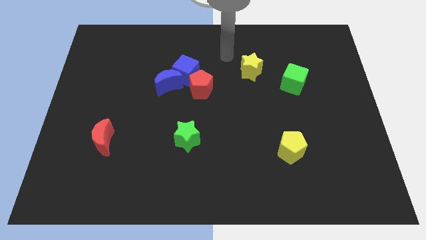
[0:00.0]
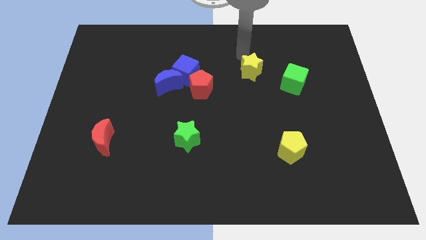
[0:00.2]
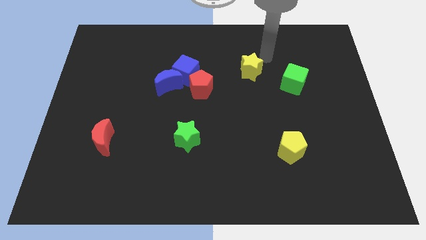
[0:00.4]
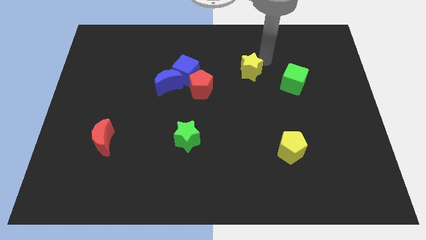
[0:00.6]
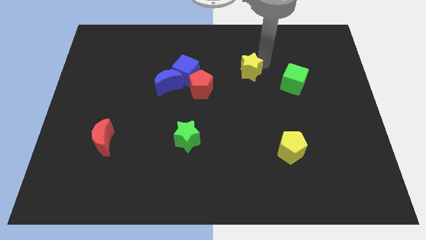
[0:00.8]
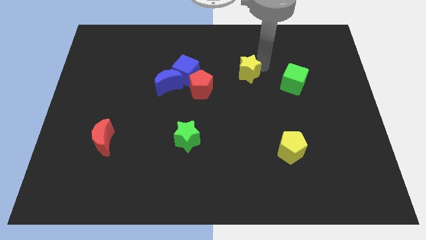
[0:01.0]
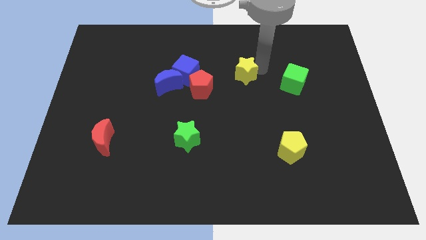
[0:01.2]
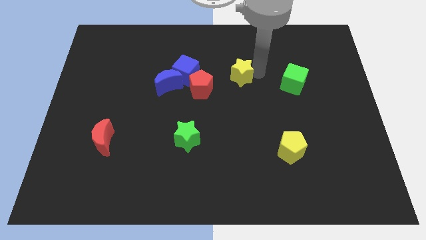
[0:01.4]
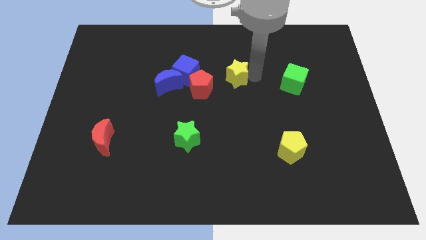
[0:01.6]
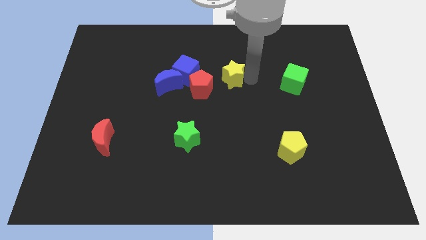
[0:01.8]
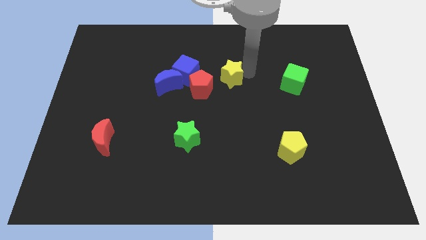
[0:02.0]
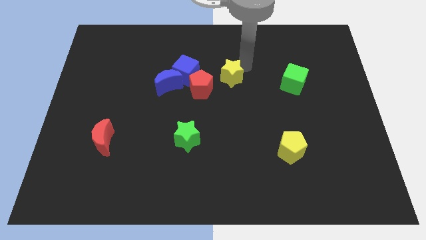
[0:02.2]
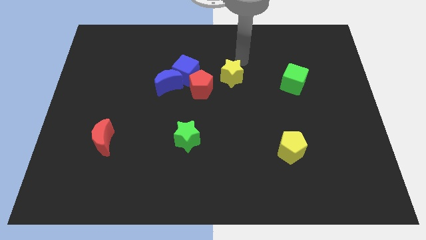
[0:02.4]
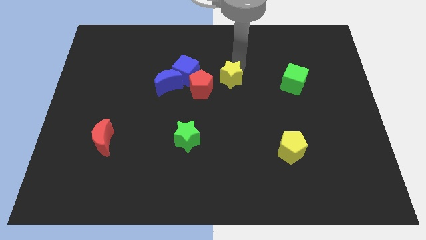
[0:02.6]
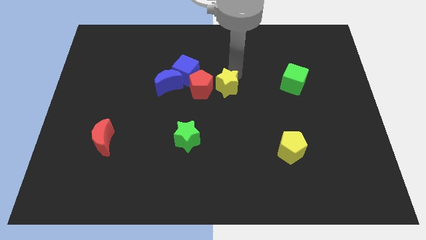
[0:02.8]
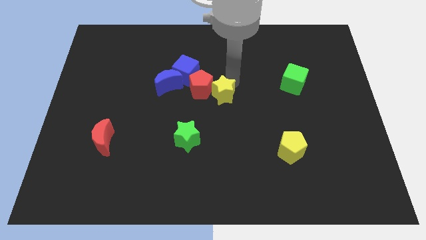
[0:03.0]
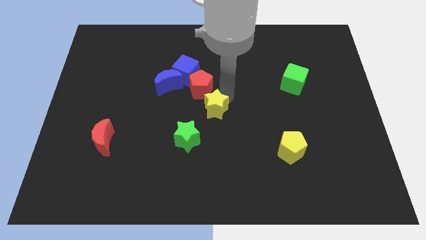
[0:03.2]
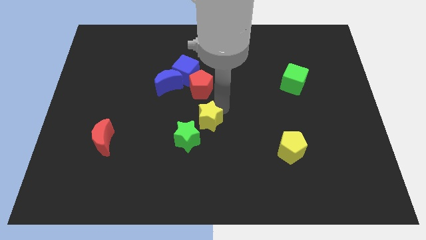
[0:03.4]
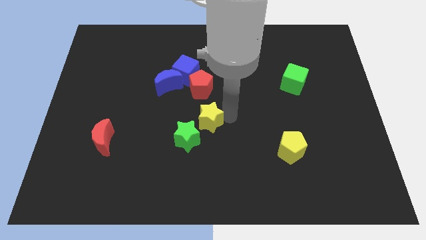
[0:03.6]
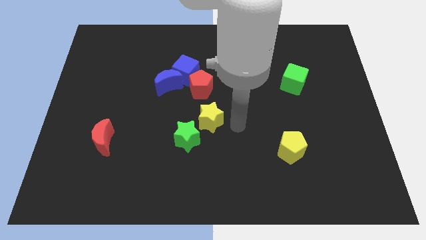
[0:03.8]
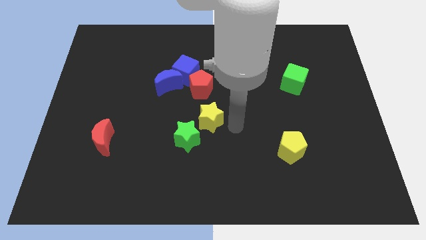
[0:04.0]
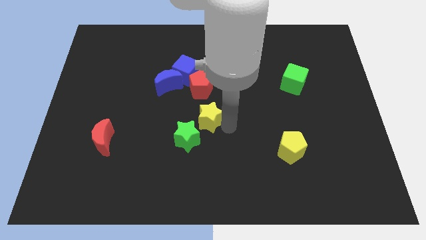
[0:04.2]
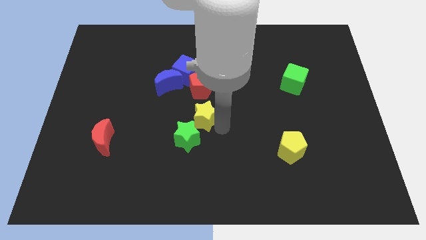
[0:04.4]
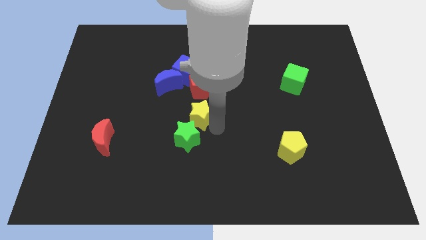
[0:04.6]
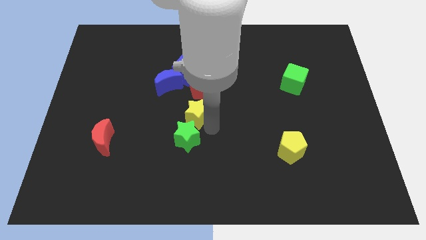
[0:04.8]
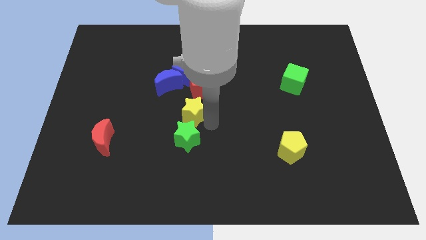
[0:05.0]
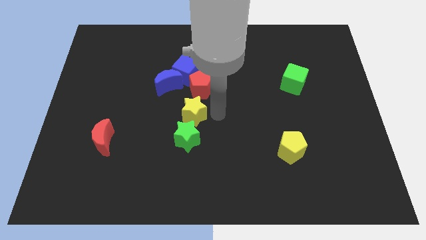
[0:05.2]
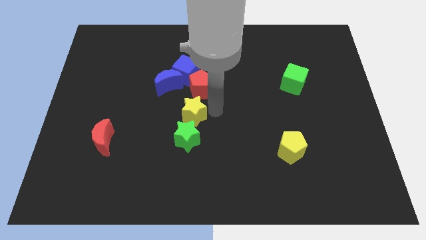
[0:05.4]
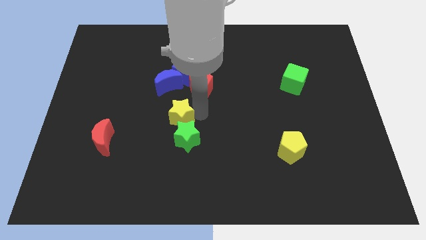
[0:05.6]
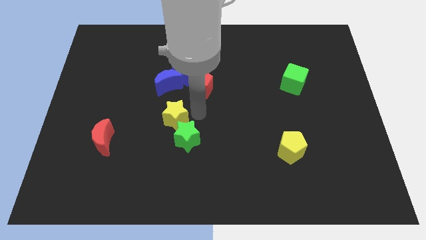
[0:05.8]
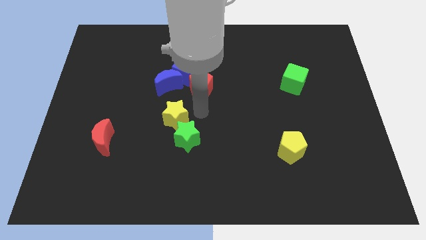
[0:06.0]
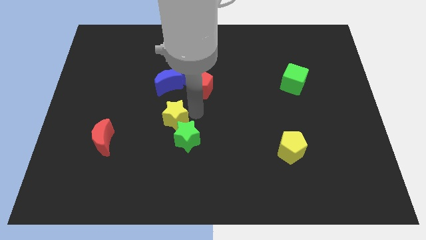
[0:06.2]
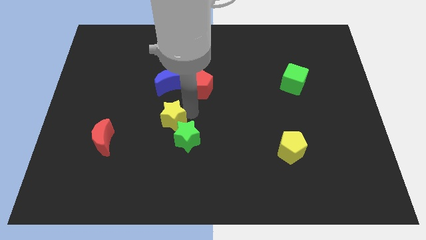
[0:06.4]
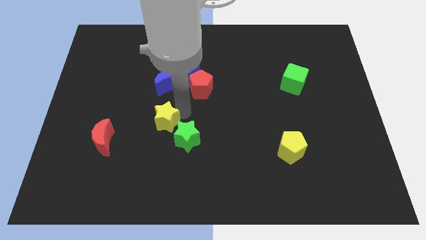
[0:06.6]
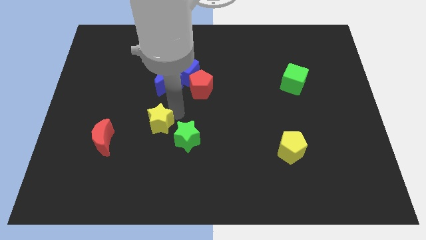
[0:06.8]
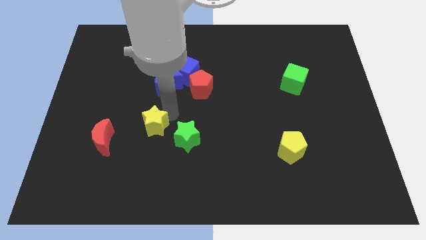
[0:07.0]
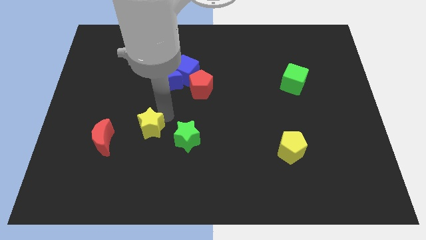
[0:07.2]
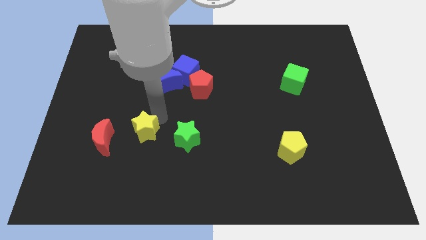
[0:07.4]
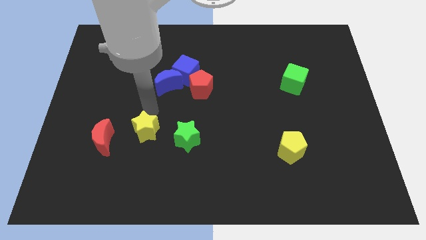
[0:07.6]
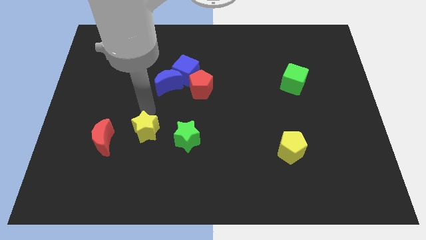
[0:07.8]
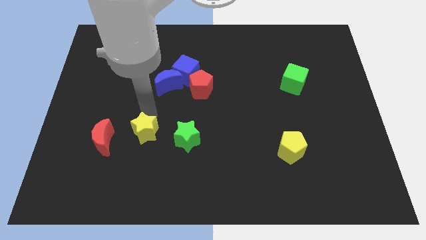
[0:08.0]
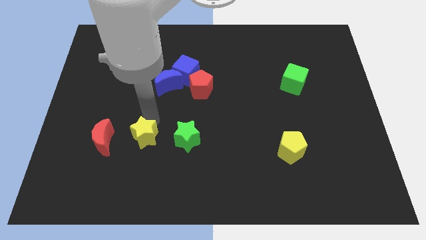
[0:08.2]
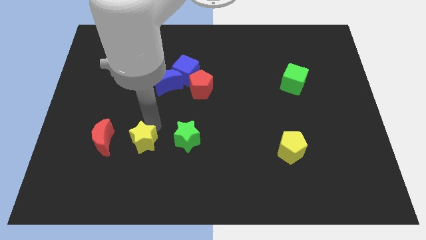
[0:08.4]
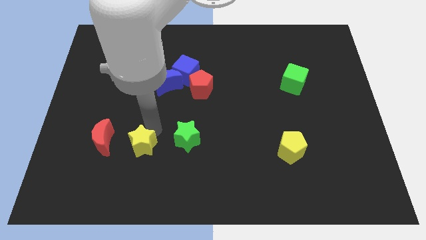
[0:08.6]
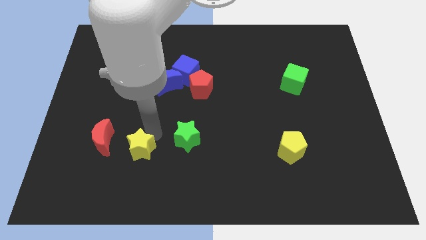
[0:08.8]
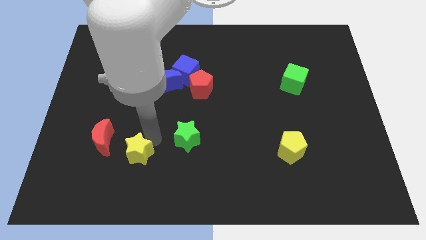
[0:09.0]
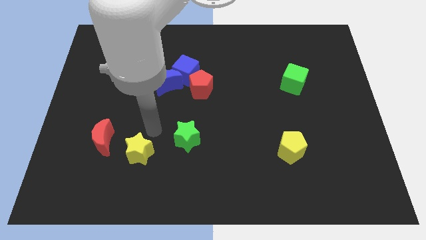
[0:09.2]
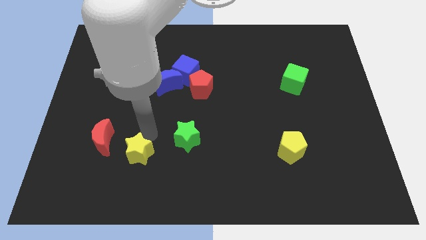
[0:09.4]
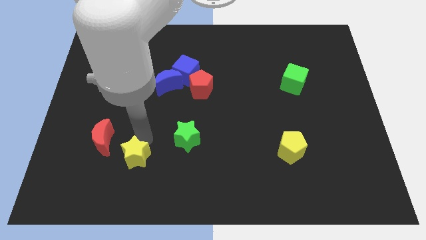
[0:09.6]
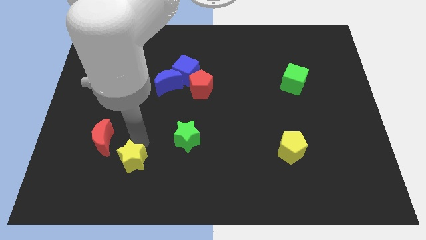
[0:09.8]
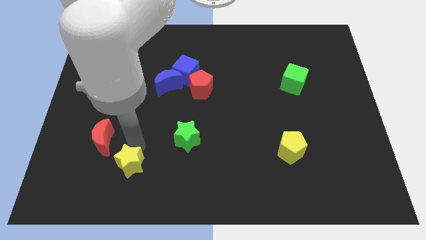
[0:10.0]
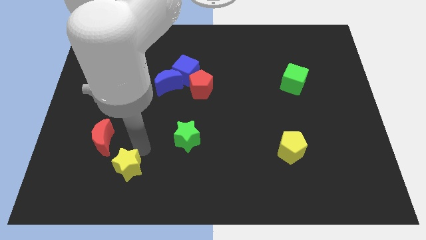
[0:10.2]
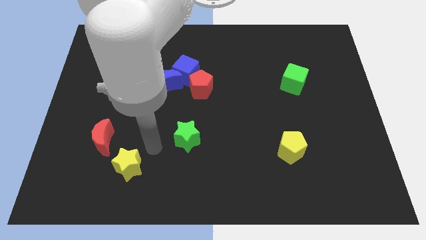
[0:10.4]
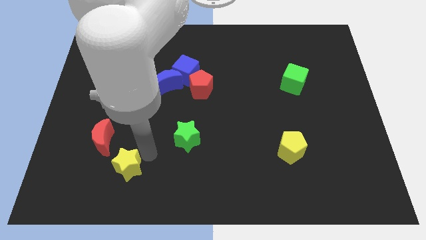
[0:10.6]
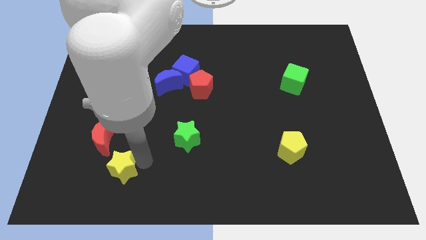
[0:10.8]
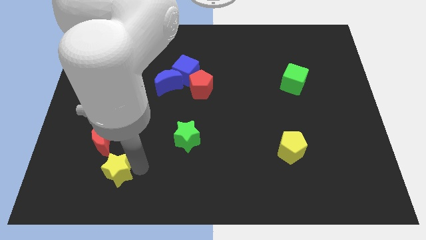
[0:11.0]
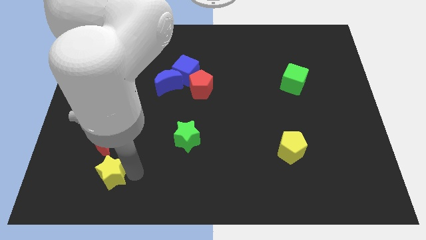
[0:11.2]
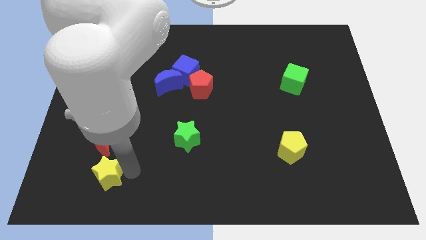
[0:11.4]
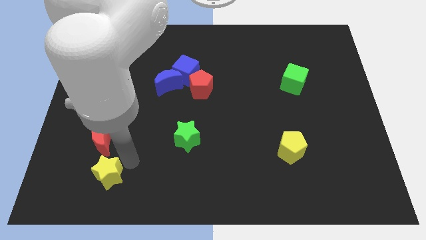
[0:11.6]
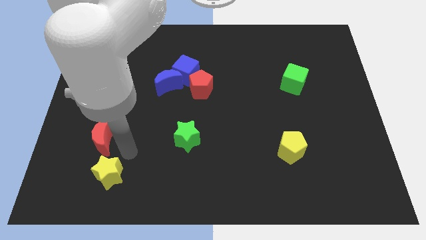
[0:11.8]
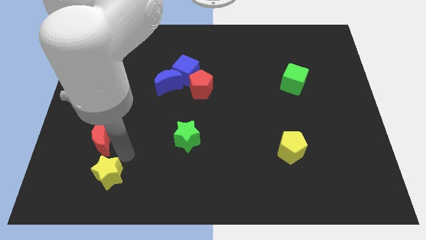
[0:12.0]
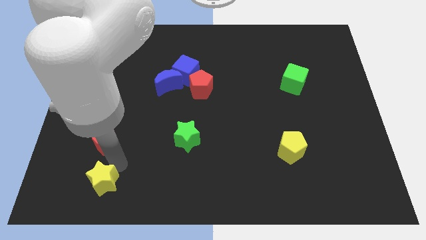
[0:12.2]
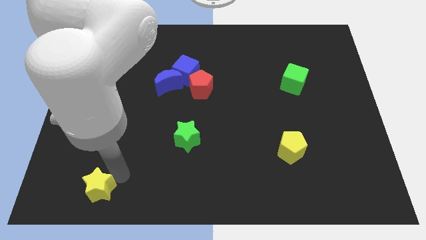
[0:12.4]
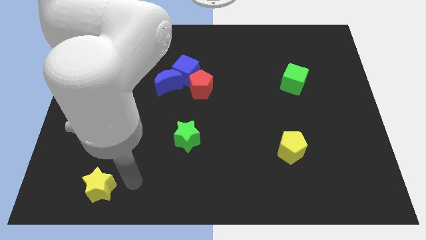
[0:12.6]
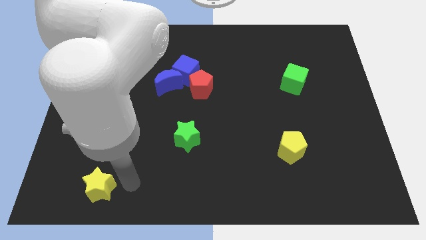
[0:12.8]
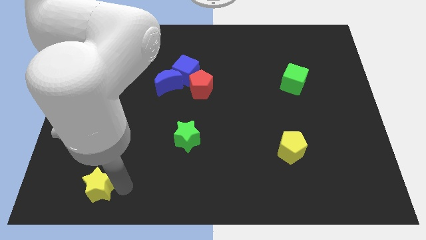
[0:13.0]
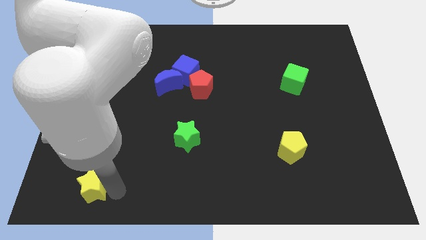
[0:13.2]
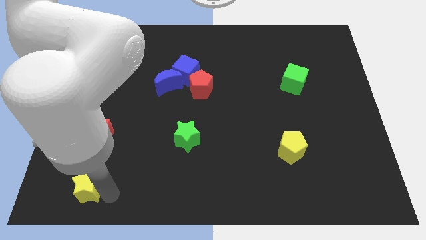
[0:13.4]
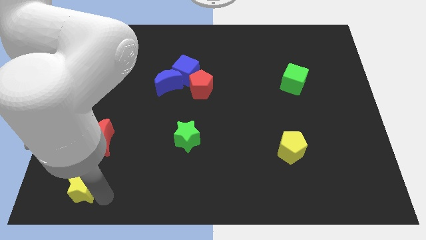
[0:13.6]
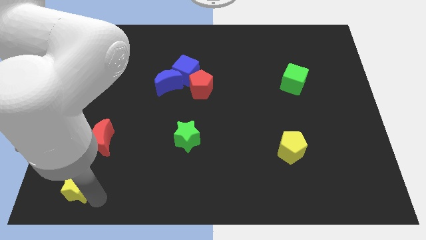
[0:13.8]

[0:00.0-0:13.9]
push the yellow star to the bottom left corner

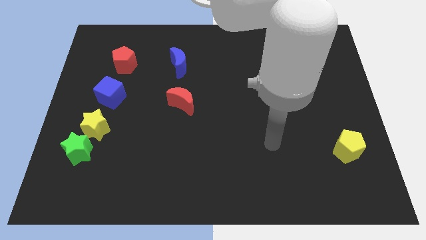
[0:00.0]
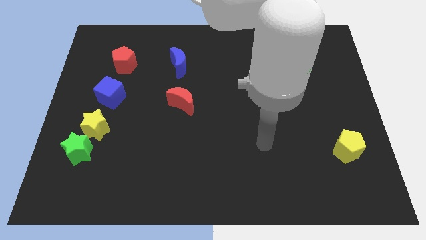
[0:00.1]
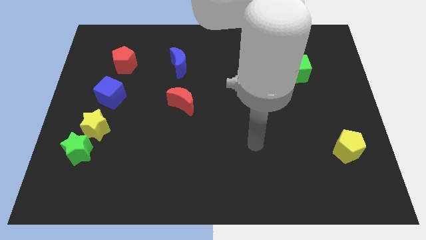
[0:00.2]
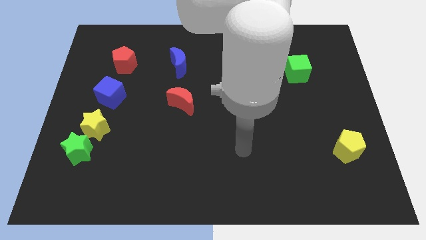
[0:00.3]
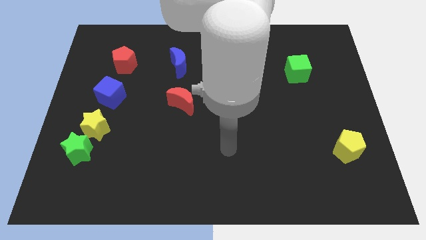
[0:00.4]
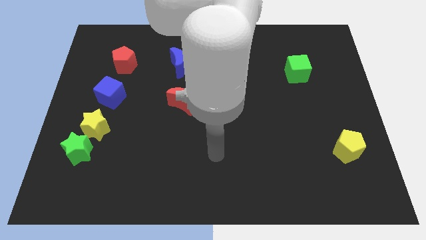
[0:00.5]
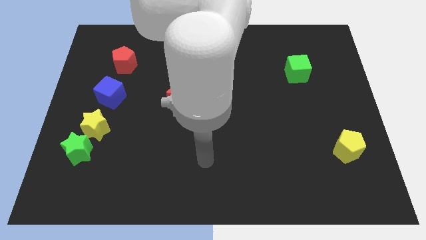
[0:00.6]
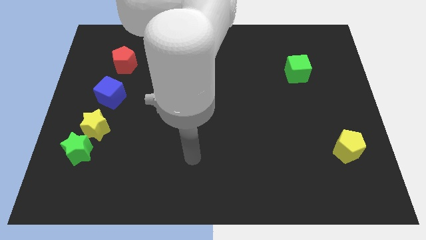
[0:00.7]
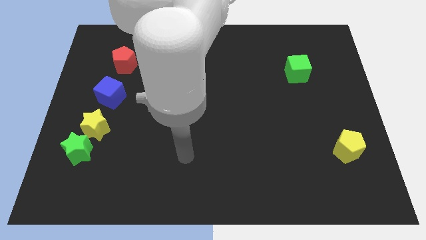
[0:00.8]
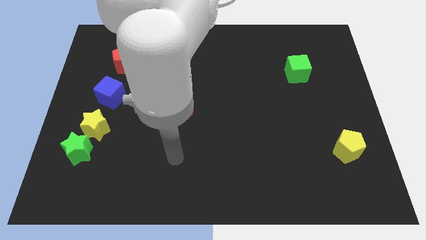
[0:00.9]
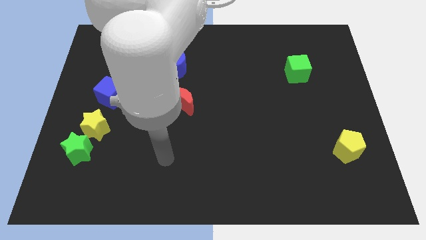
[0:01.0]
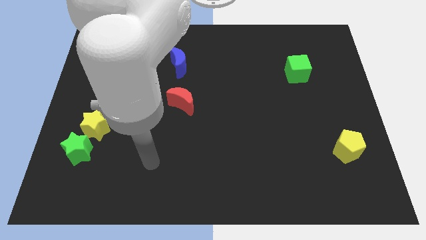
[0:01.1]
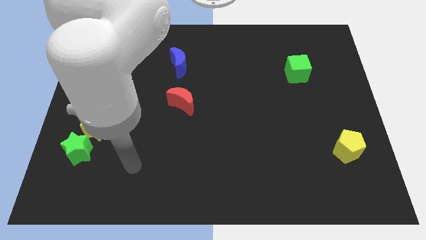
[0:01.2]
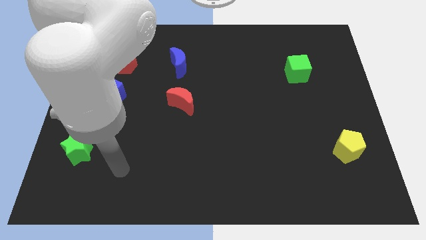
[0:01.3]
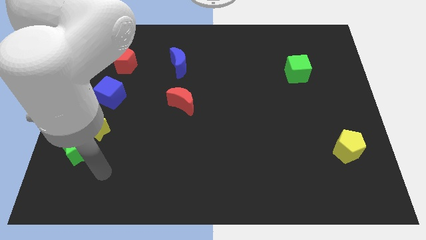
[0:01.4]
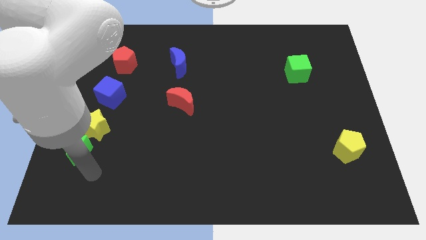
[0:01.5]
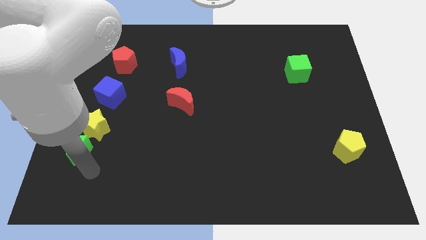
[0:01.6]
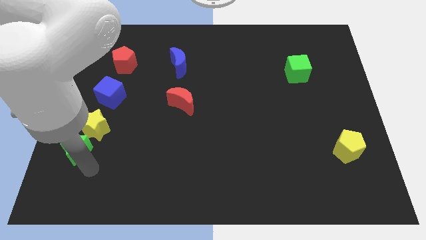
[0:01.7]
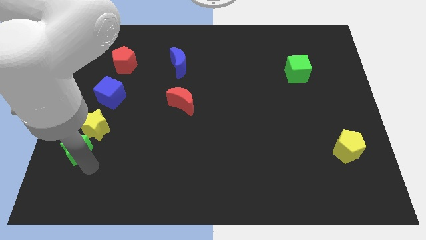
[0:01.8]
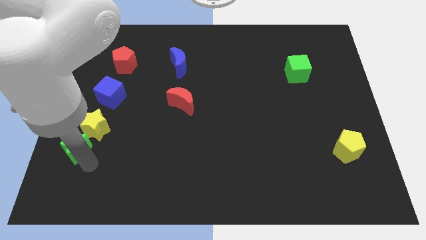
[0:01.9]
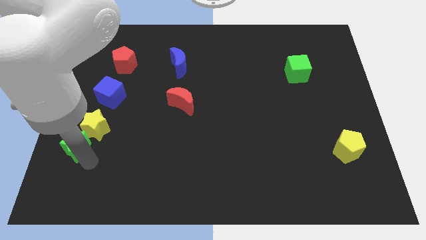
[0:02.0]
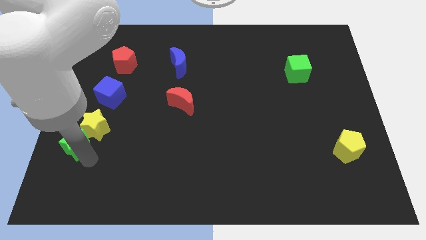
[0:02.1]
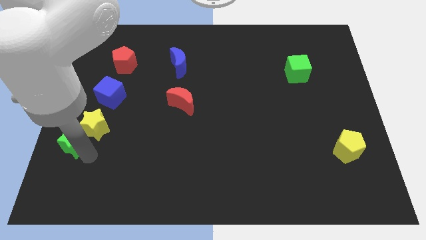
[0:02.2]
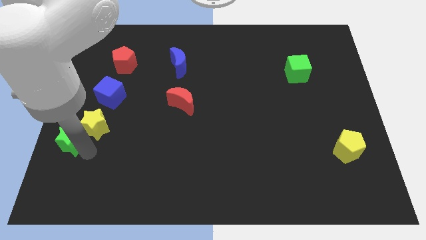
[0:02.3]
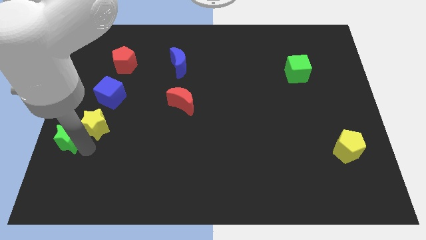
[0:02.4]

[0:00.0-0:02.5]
push the green star to the left side
